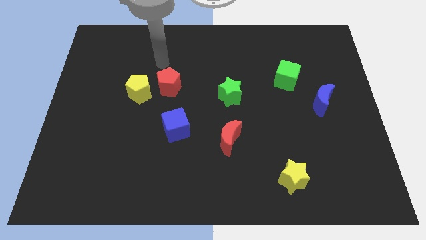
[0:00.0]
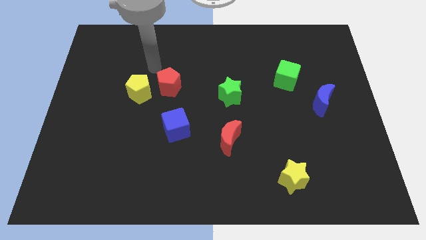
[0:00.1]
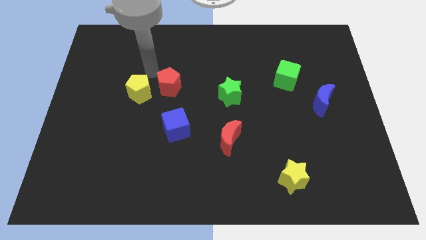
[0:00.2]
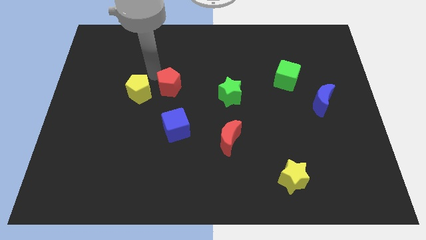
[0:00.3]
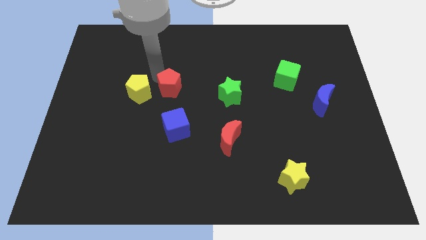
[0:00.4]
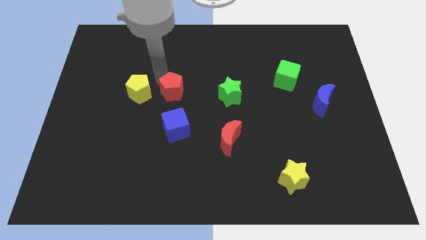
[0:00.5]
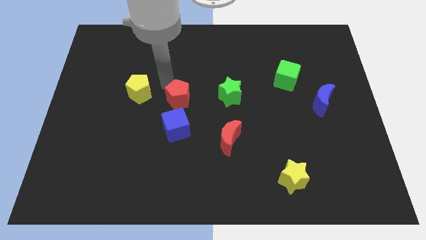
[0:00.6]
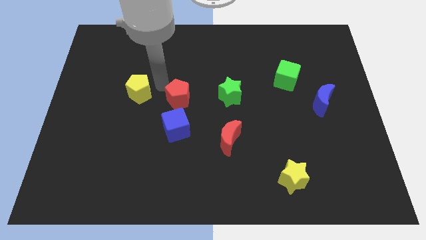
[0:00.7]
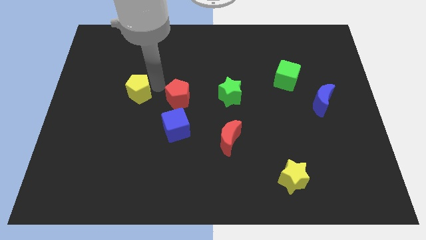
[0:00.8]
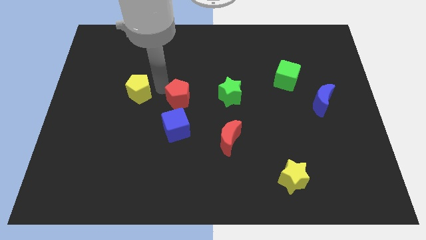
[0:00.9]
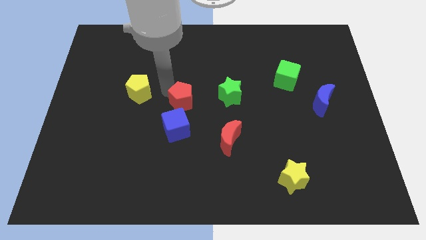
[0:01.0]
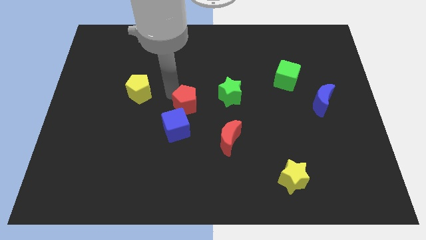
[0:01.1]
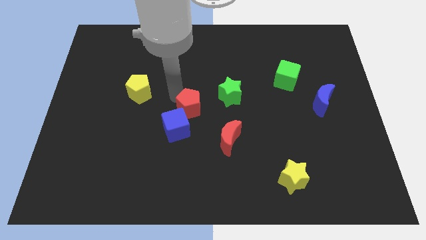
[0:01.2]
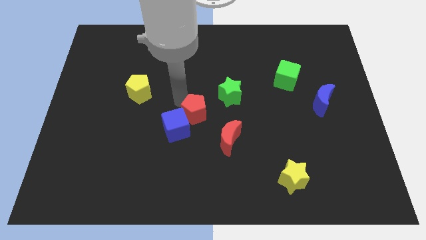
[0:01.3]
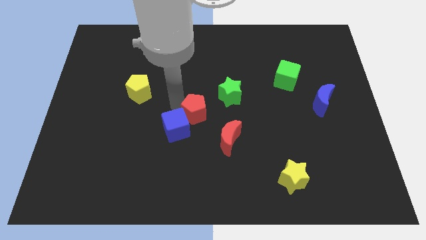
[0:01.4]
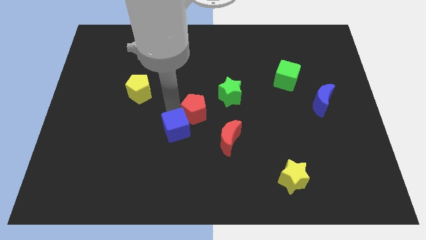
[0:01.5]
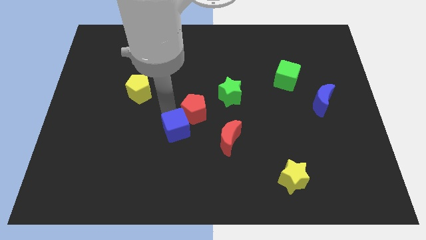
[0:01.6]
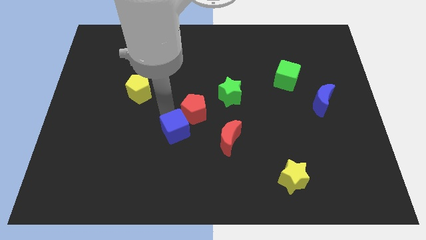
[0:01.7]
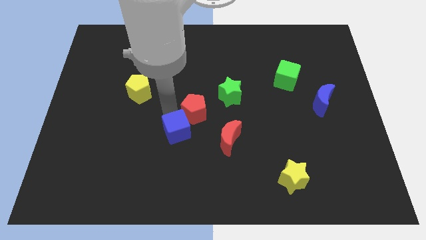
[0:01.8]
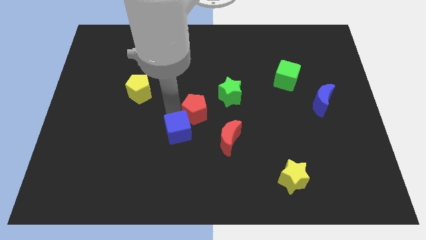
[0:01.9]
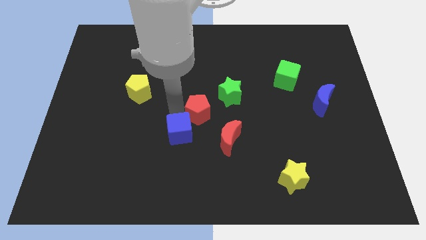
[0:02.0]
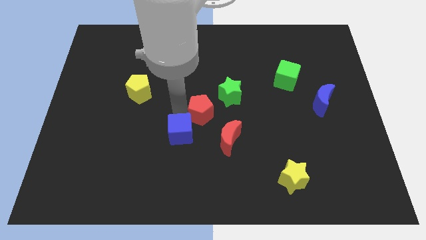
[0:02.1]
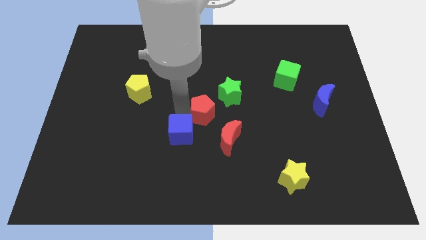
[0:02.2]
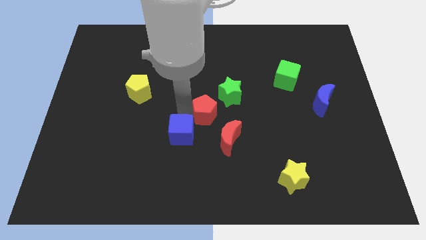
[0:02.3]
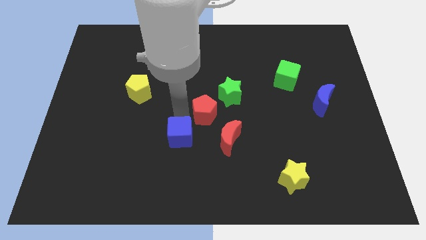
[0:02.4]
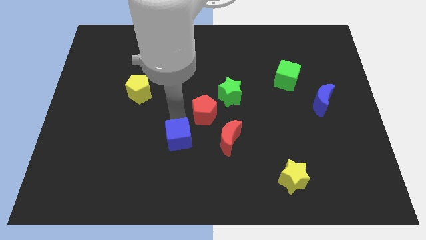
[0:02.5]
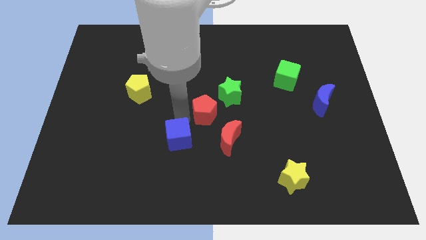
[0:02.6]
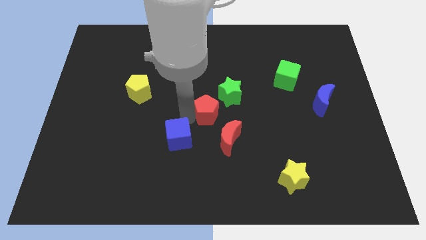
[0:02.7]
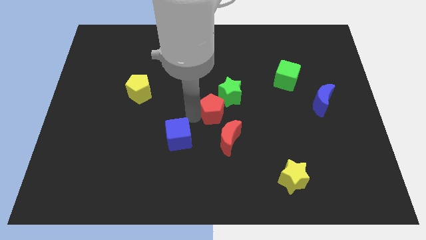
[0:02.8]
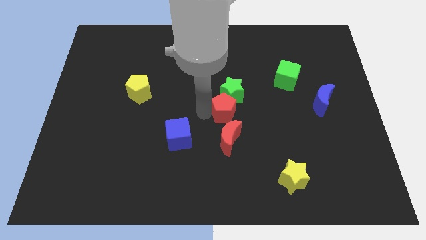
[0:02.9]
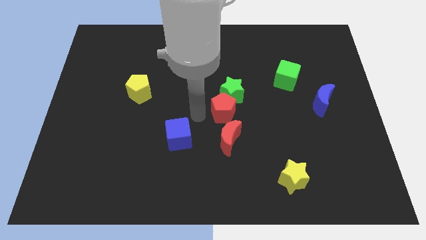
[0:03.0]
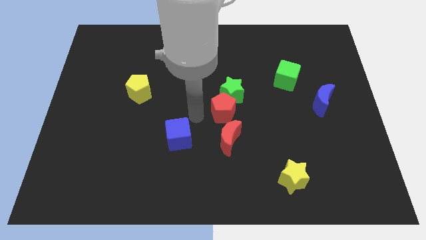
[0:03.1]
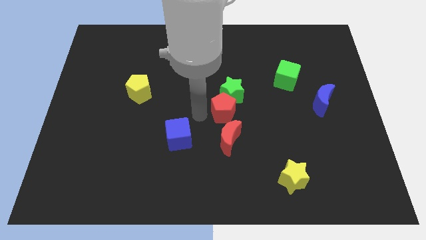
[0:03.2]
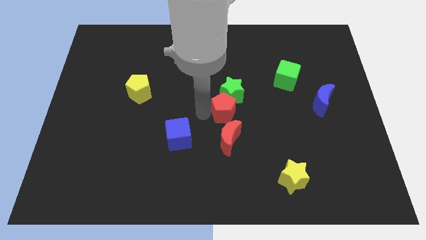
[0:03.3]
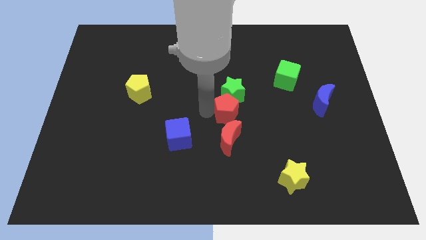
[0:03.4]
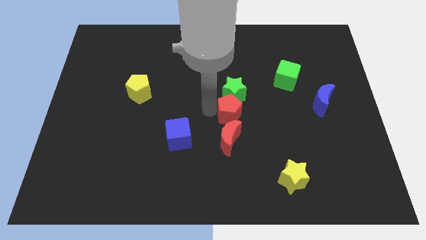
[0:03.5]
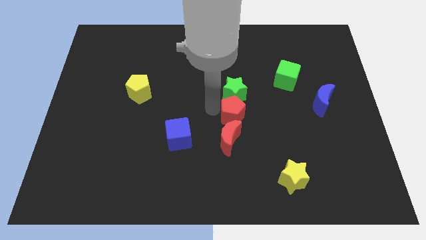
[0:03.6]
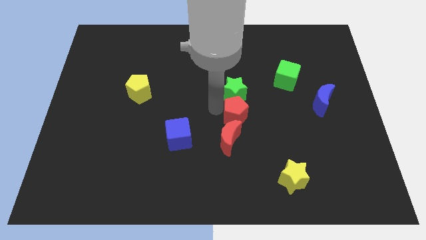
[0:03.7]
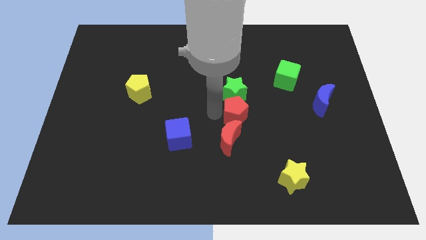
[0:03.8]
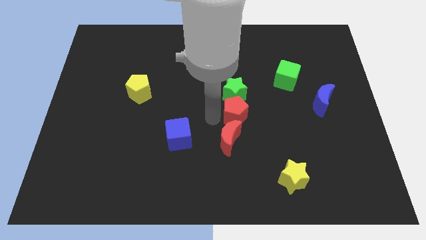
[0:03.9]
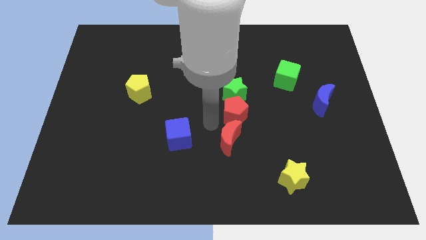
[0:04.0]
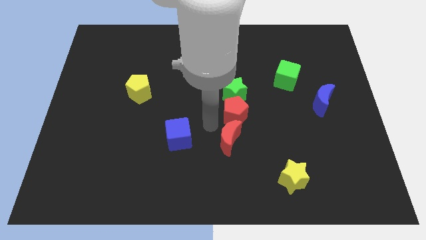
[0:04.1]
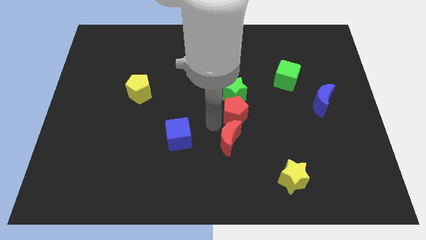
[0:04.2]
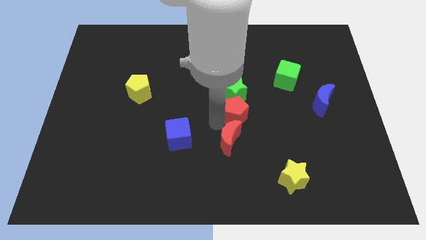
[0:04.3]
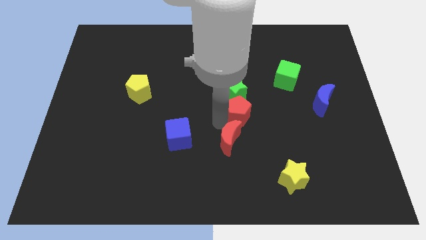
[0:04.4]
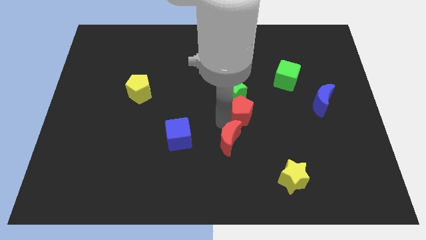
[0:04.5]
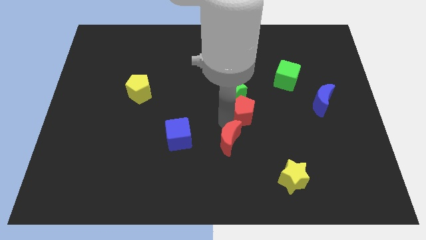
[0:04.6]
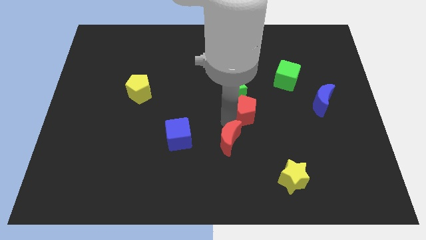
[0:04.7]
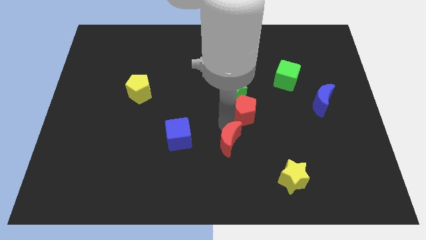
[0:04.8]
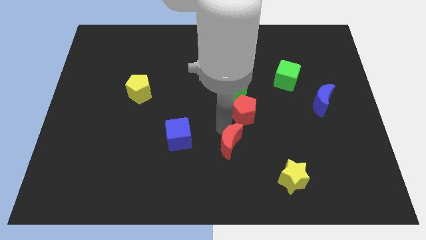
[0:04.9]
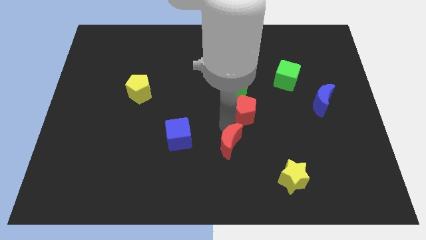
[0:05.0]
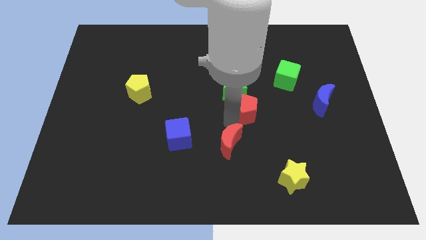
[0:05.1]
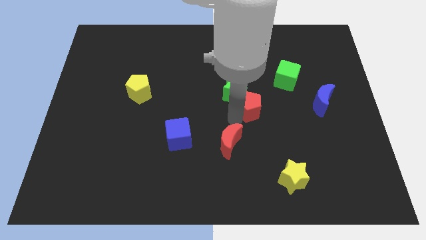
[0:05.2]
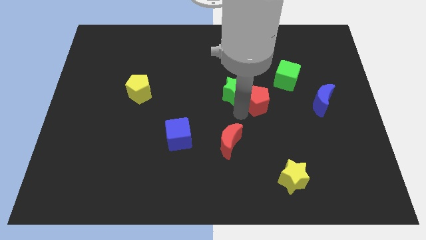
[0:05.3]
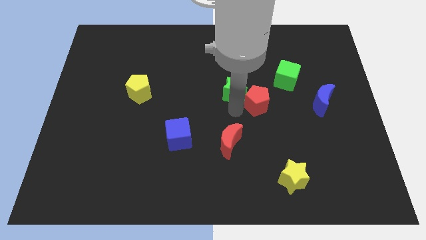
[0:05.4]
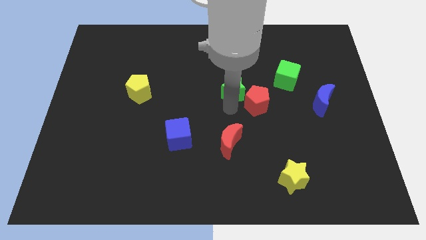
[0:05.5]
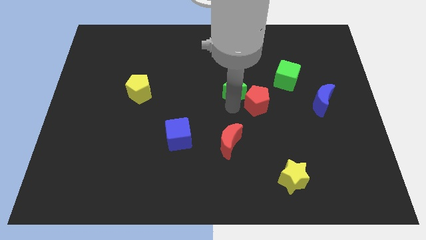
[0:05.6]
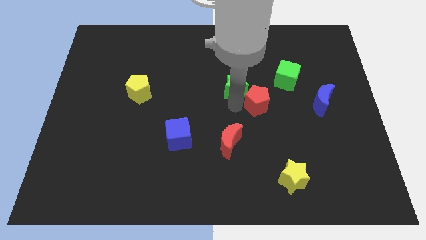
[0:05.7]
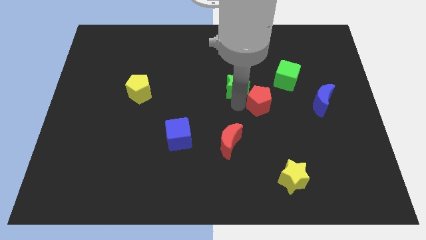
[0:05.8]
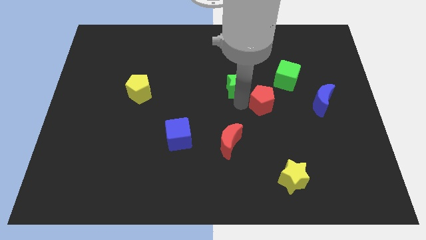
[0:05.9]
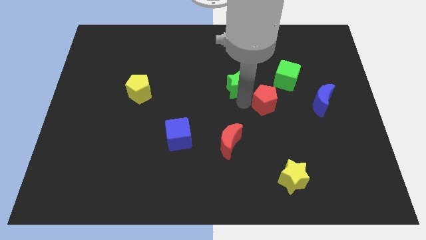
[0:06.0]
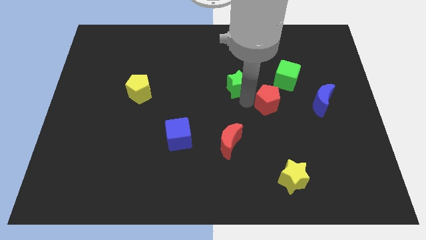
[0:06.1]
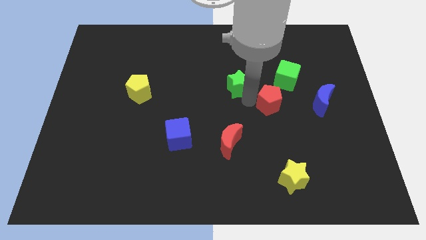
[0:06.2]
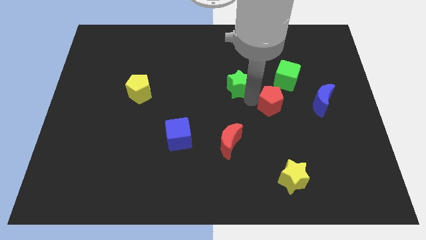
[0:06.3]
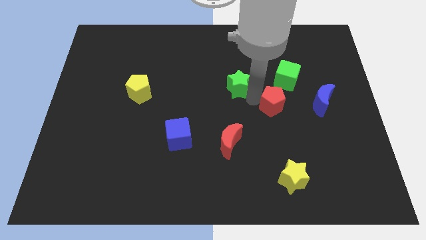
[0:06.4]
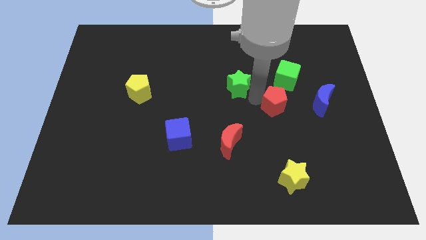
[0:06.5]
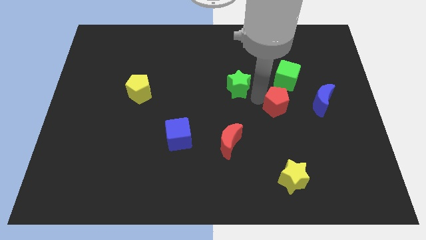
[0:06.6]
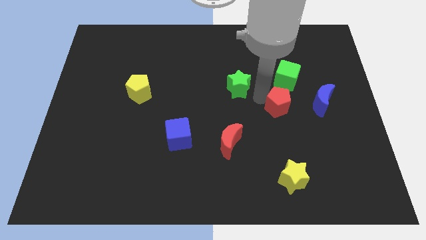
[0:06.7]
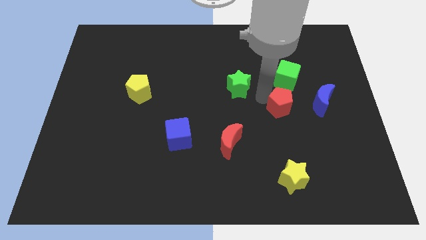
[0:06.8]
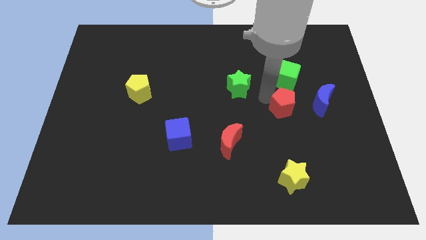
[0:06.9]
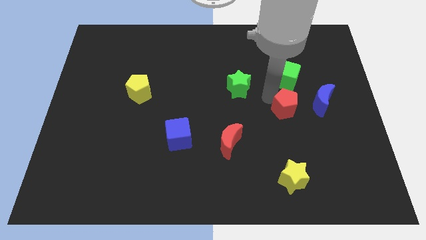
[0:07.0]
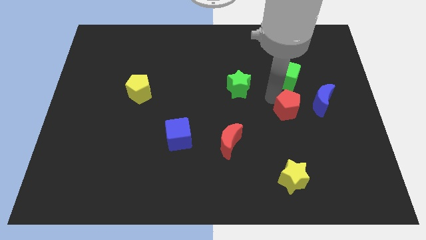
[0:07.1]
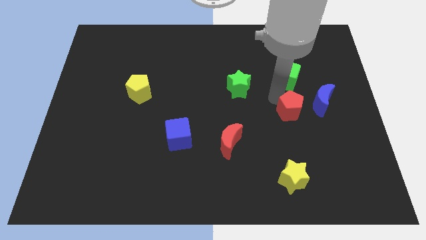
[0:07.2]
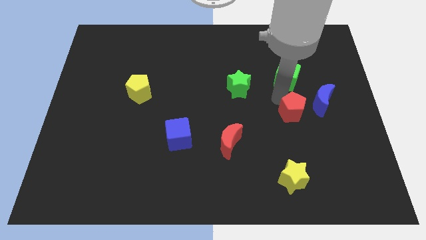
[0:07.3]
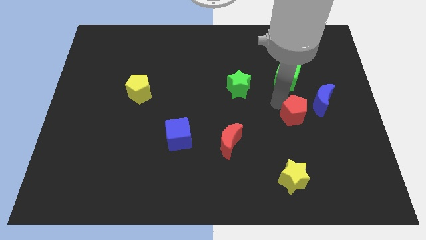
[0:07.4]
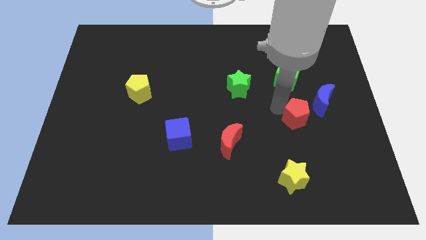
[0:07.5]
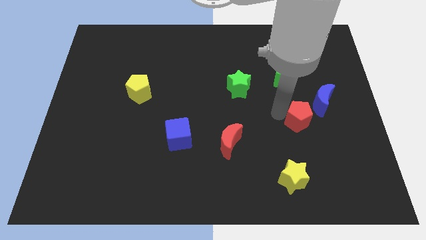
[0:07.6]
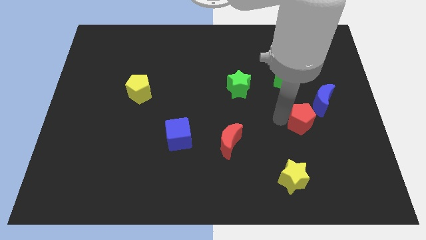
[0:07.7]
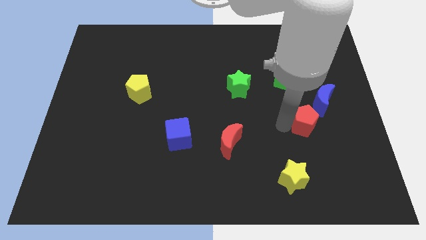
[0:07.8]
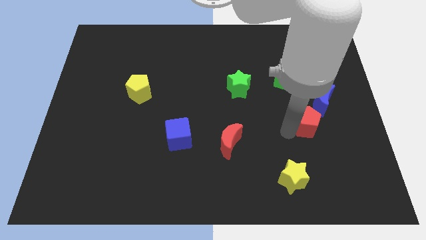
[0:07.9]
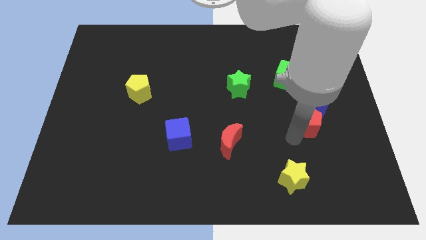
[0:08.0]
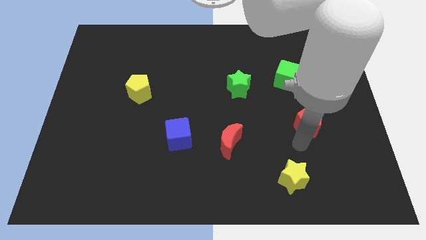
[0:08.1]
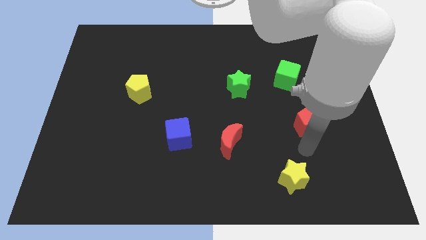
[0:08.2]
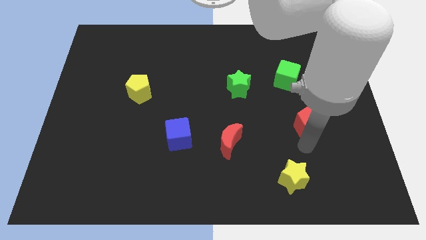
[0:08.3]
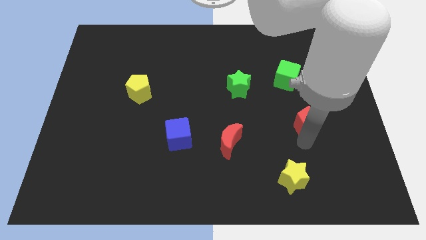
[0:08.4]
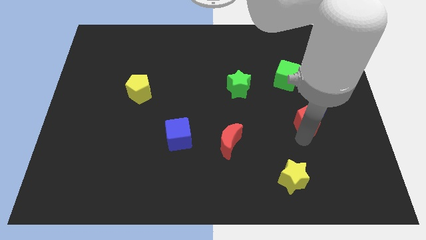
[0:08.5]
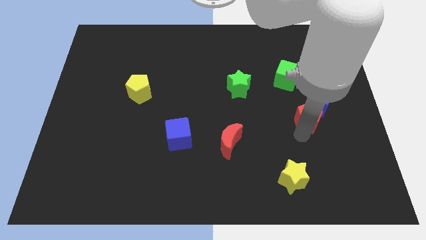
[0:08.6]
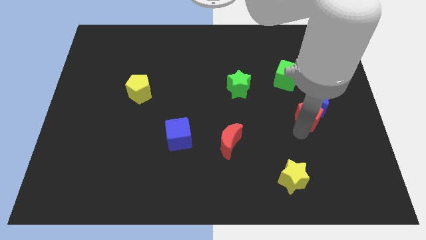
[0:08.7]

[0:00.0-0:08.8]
move the red pentagon to the blue moon
